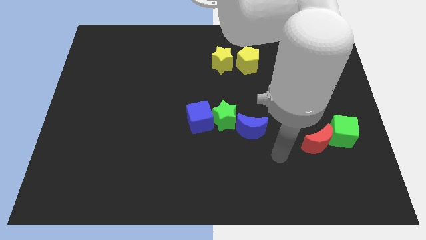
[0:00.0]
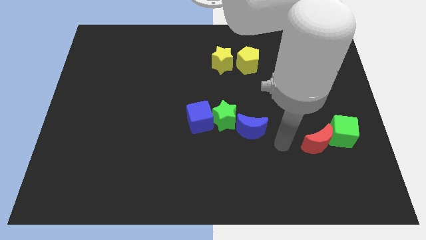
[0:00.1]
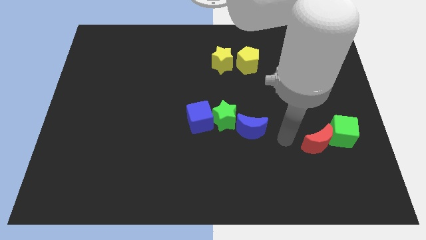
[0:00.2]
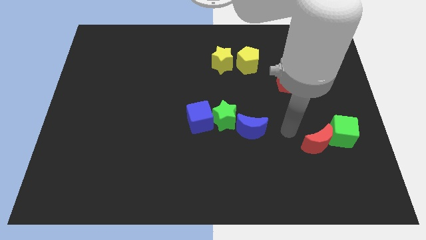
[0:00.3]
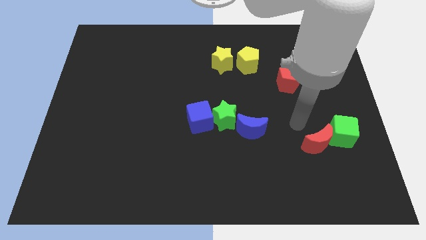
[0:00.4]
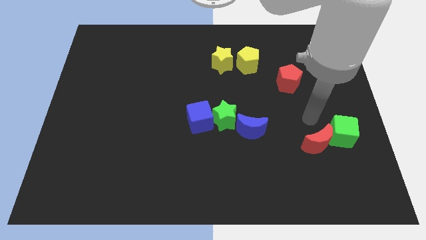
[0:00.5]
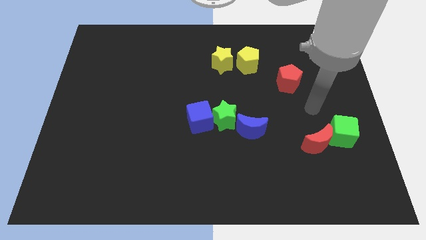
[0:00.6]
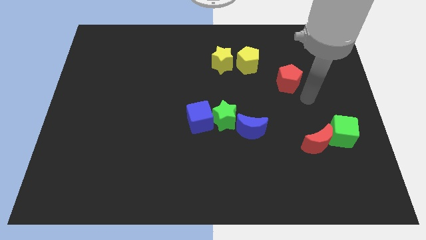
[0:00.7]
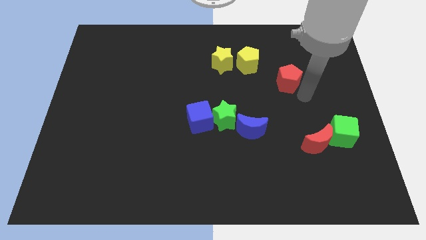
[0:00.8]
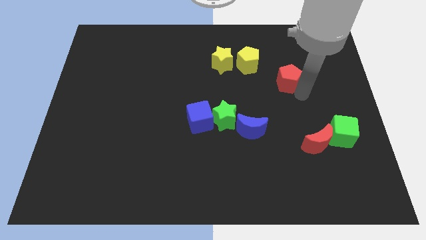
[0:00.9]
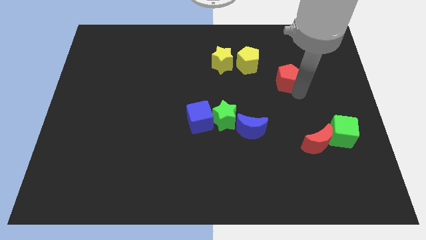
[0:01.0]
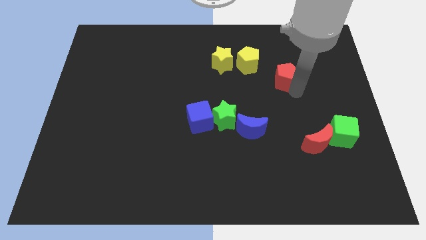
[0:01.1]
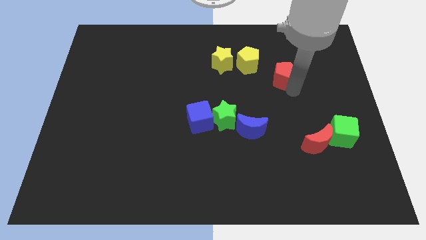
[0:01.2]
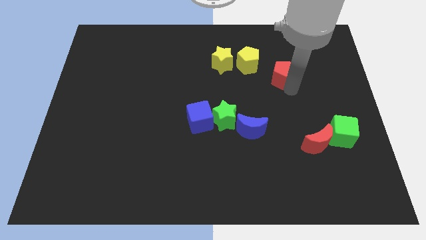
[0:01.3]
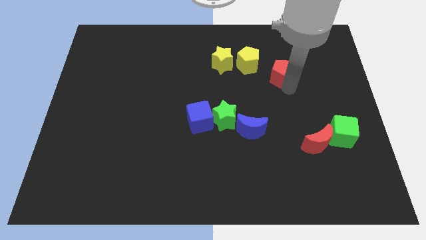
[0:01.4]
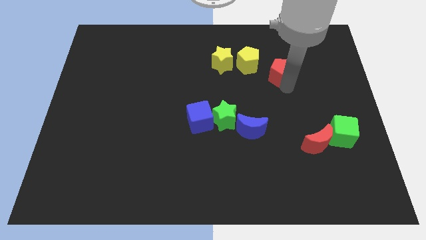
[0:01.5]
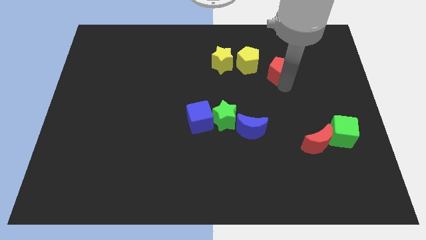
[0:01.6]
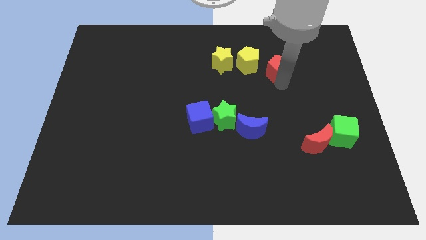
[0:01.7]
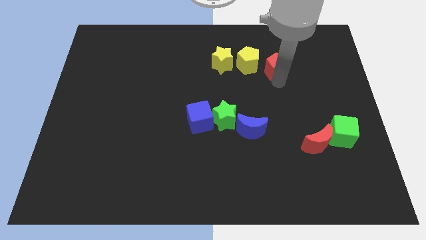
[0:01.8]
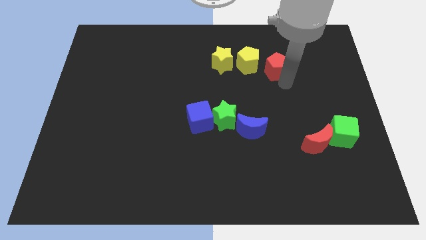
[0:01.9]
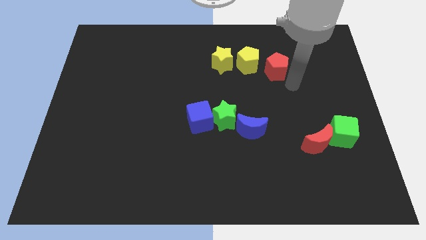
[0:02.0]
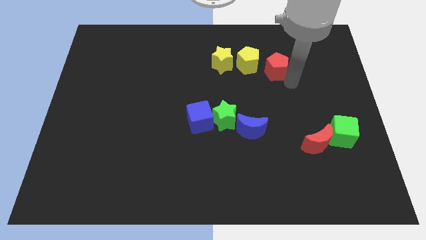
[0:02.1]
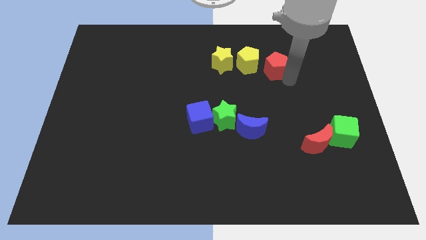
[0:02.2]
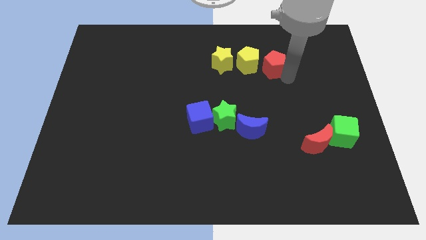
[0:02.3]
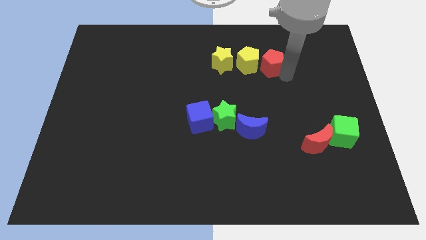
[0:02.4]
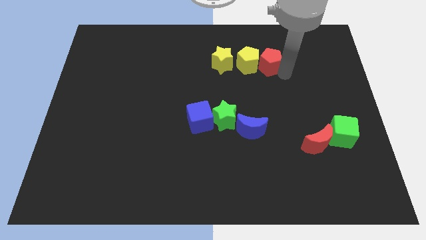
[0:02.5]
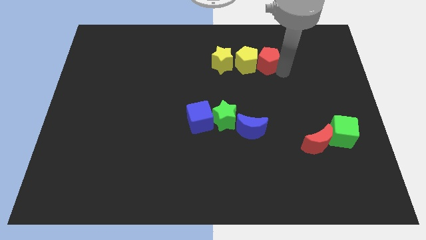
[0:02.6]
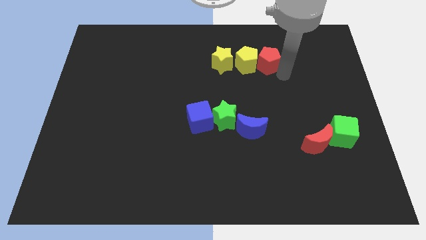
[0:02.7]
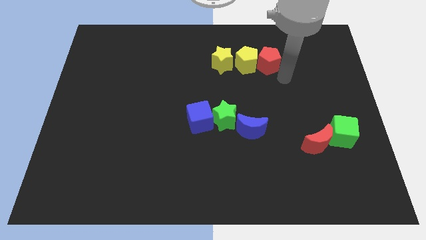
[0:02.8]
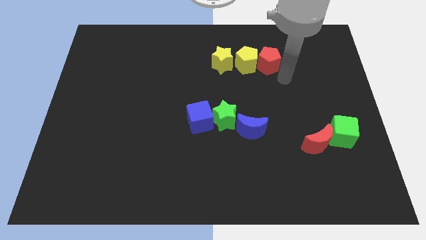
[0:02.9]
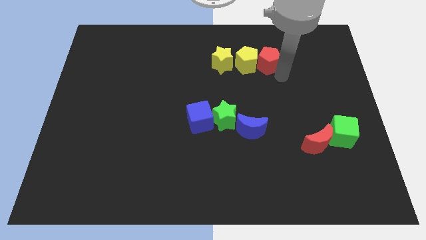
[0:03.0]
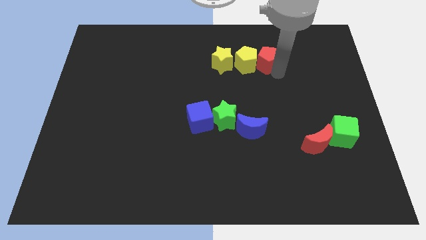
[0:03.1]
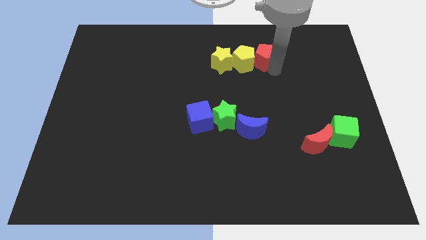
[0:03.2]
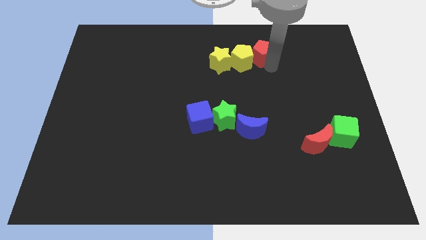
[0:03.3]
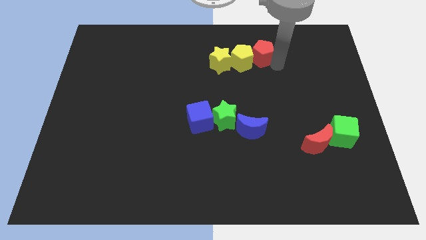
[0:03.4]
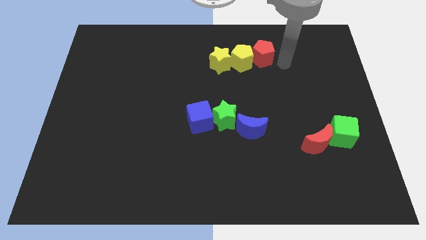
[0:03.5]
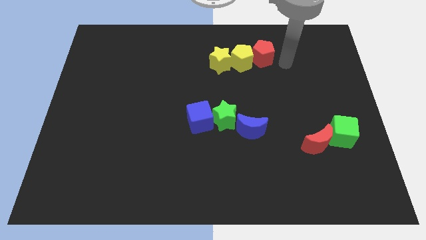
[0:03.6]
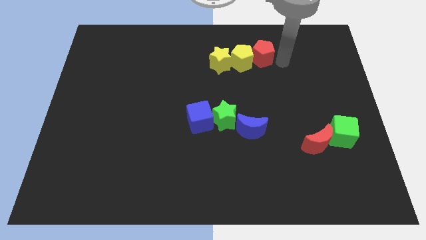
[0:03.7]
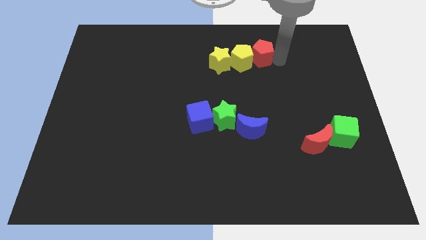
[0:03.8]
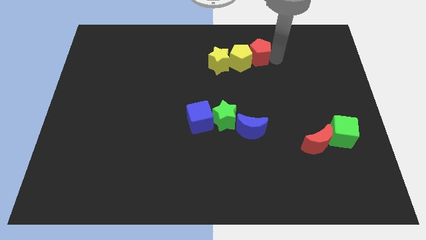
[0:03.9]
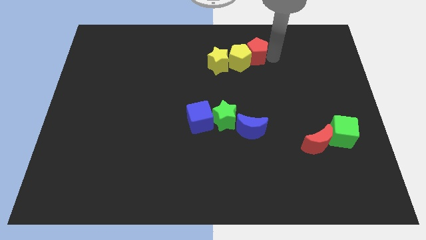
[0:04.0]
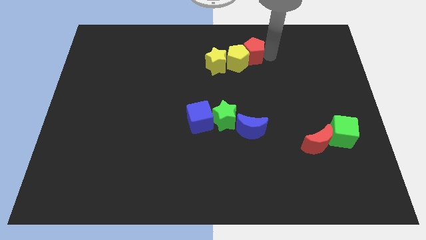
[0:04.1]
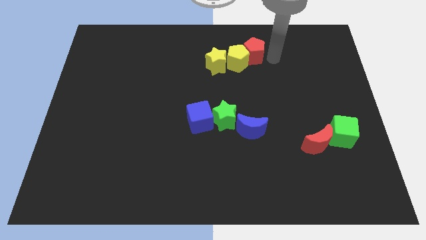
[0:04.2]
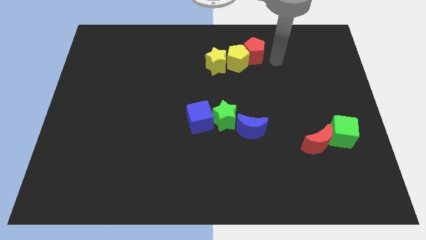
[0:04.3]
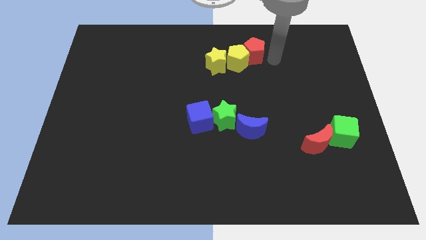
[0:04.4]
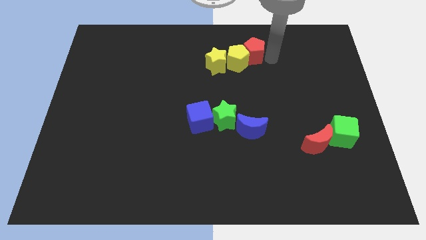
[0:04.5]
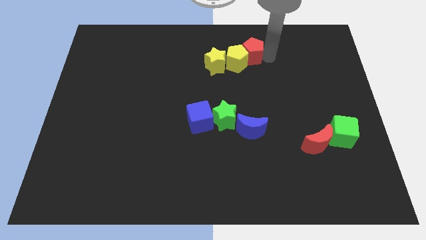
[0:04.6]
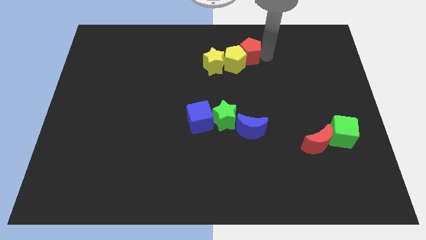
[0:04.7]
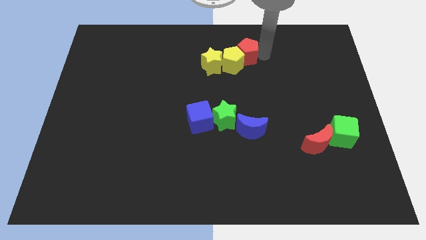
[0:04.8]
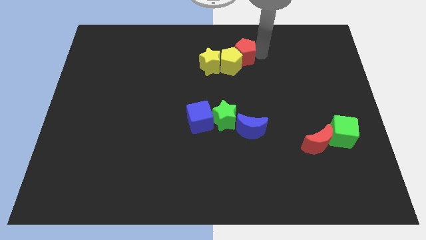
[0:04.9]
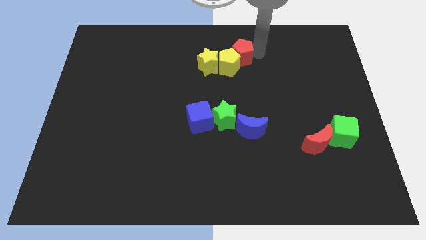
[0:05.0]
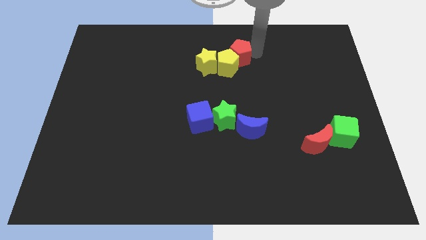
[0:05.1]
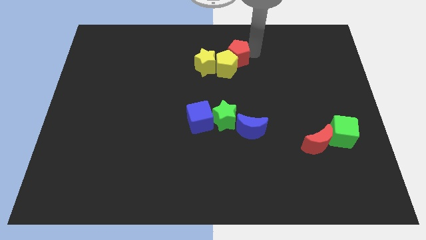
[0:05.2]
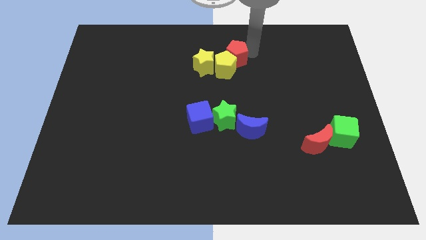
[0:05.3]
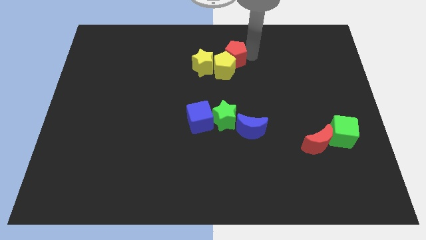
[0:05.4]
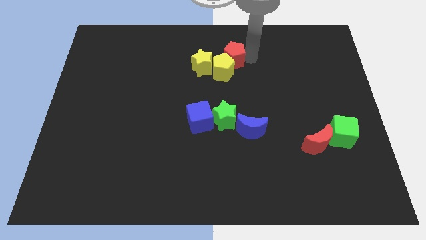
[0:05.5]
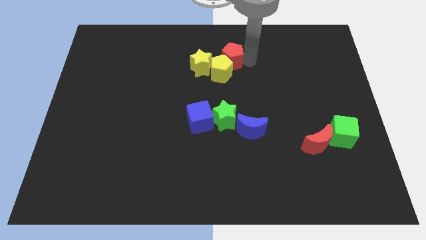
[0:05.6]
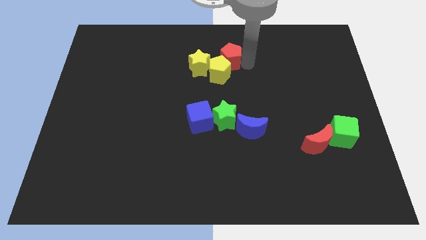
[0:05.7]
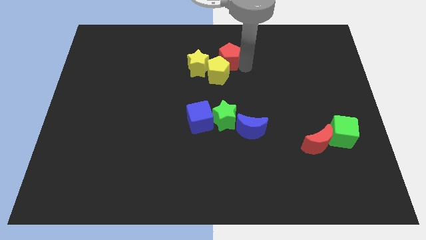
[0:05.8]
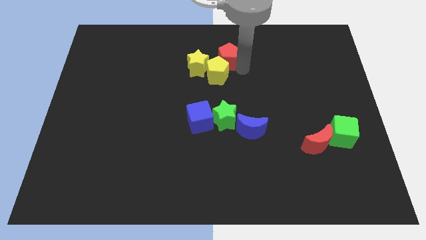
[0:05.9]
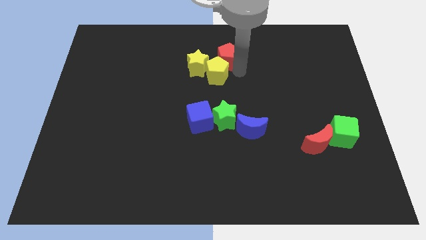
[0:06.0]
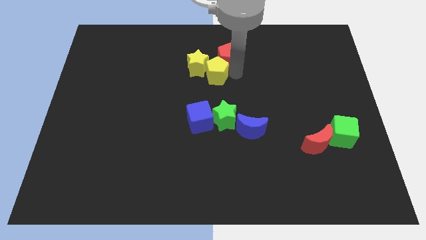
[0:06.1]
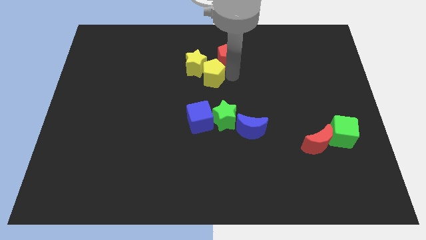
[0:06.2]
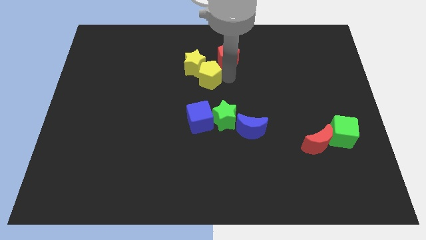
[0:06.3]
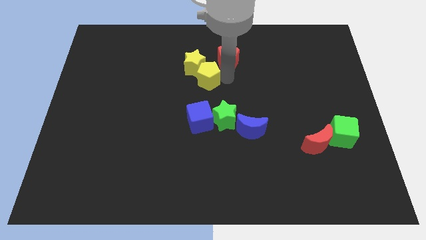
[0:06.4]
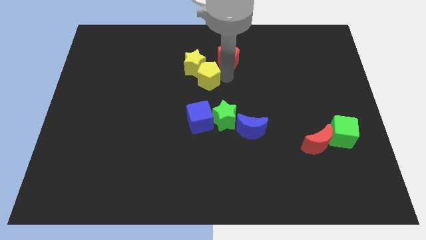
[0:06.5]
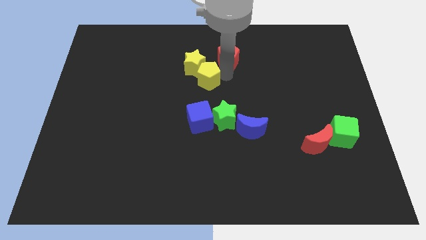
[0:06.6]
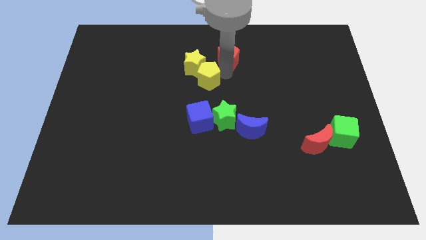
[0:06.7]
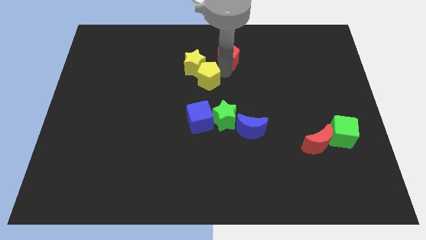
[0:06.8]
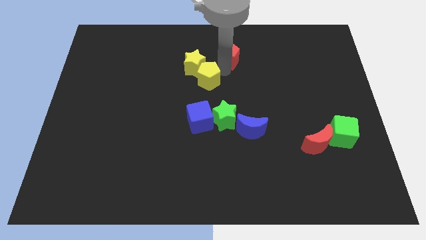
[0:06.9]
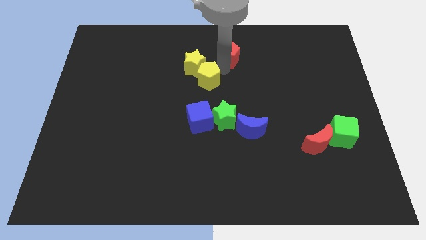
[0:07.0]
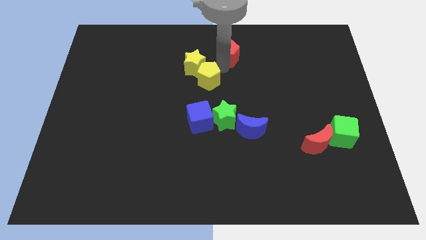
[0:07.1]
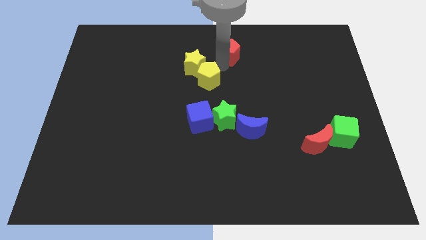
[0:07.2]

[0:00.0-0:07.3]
move the red pentagon to the towards your base
